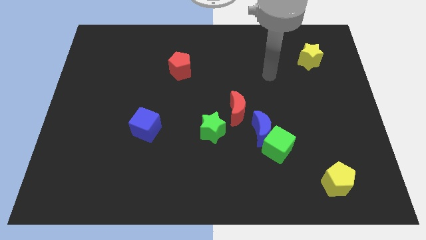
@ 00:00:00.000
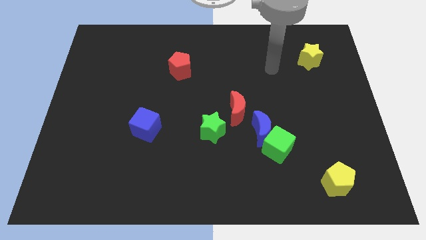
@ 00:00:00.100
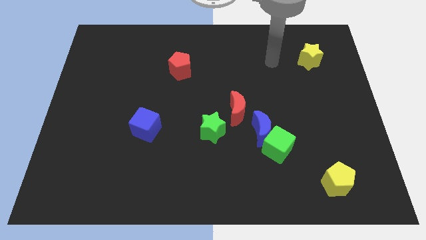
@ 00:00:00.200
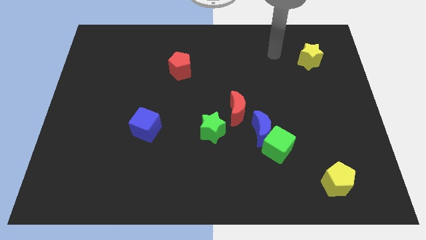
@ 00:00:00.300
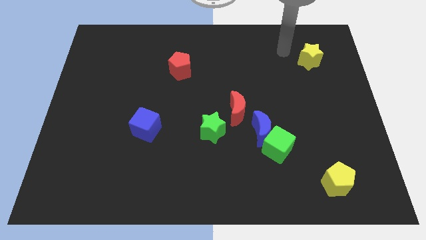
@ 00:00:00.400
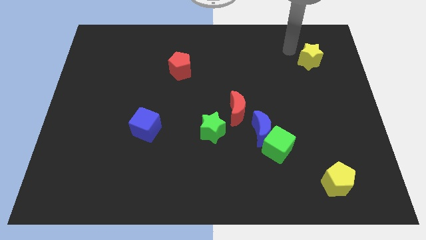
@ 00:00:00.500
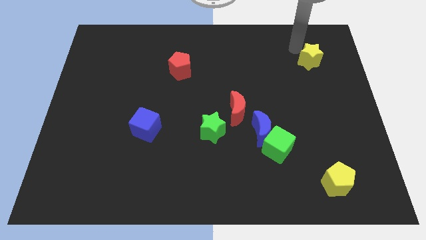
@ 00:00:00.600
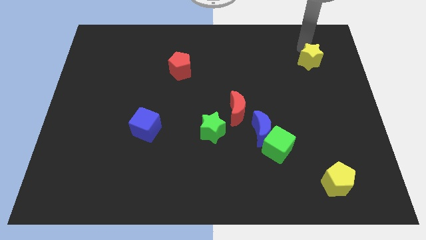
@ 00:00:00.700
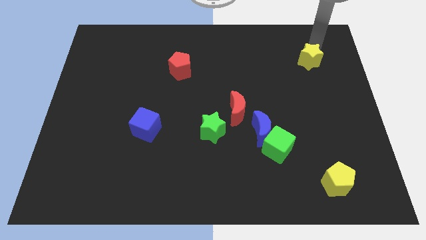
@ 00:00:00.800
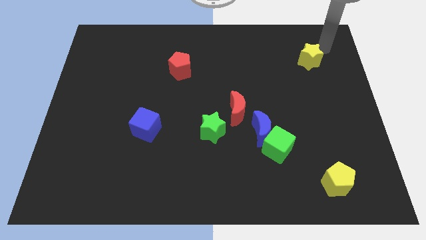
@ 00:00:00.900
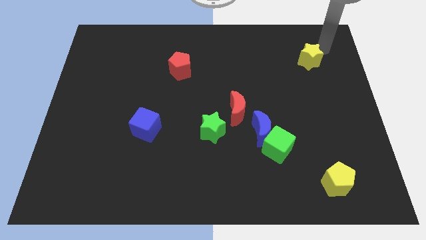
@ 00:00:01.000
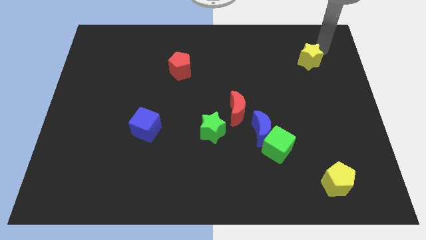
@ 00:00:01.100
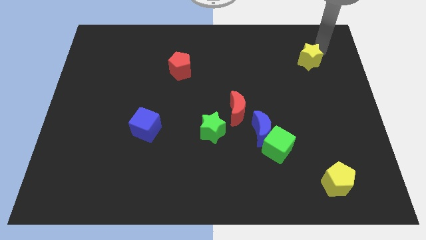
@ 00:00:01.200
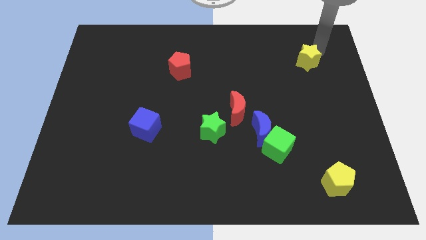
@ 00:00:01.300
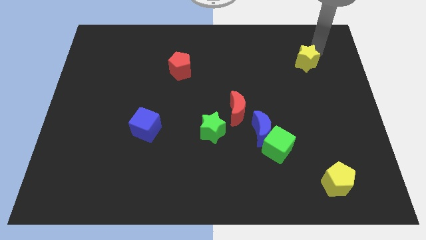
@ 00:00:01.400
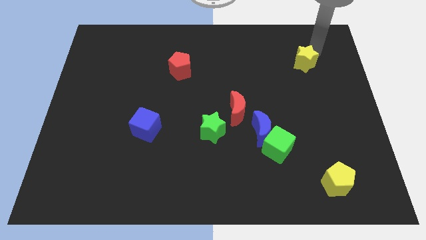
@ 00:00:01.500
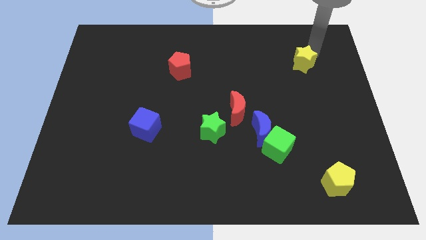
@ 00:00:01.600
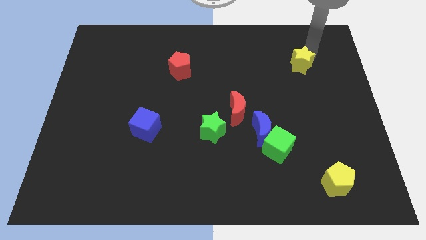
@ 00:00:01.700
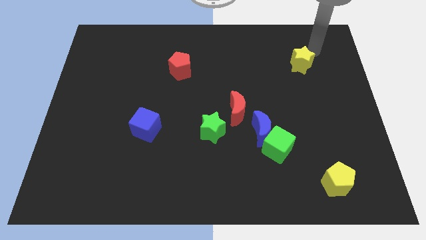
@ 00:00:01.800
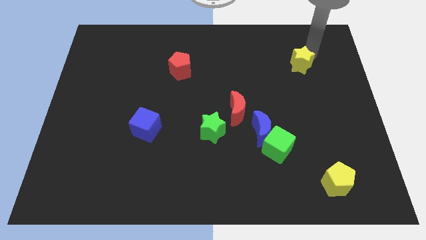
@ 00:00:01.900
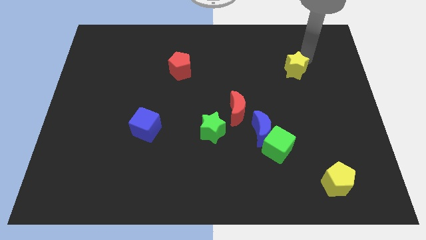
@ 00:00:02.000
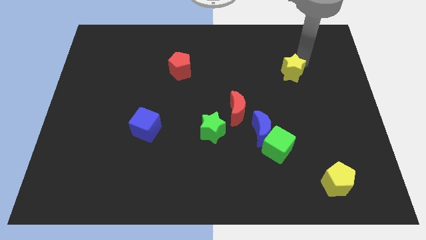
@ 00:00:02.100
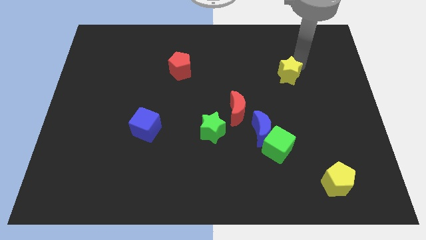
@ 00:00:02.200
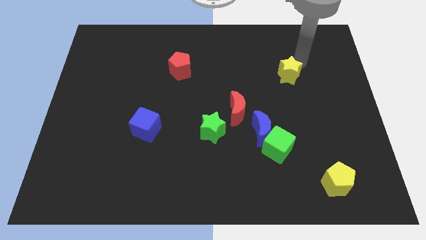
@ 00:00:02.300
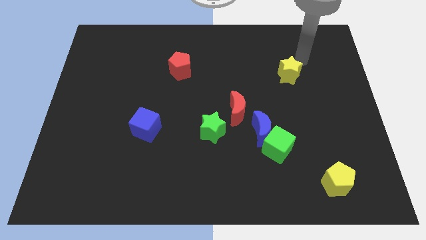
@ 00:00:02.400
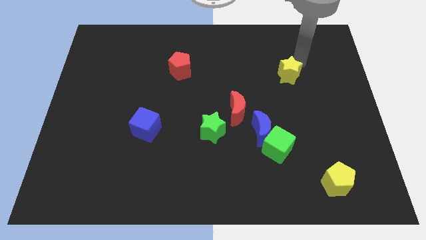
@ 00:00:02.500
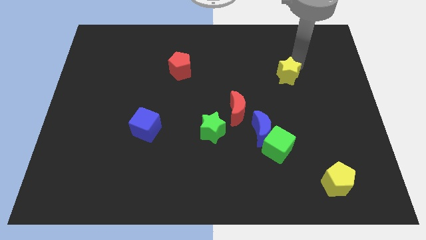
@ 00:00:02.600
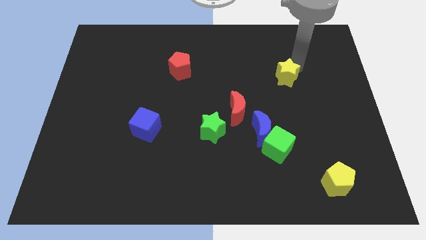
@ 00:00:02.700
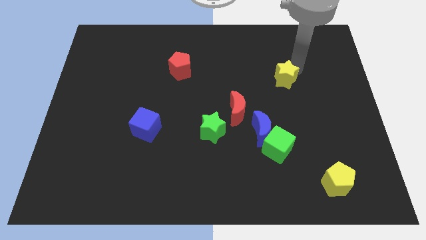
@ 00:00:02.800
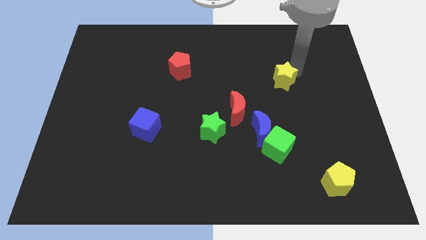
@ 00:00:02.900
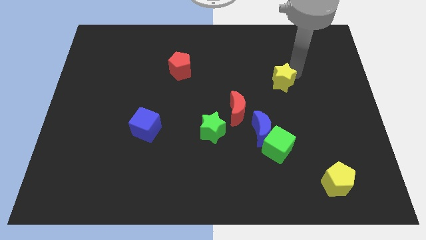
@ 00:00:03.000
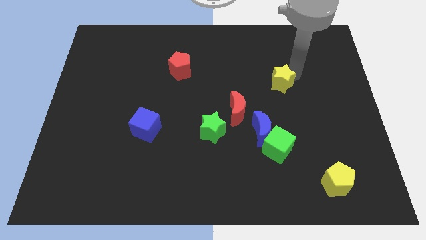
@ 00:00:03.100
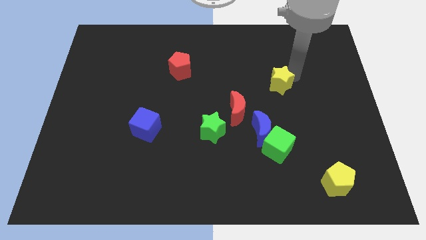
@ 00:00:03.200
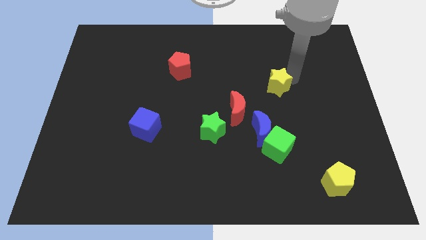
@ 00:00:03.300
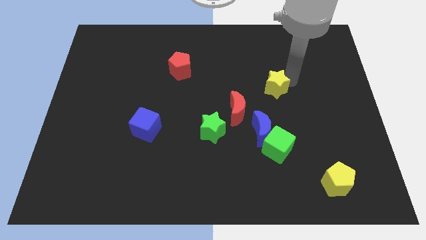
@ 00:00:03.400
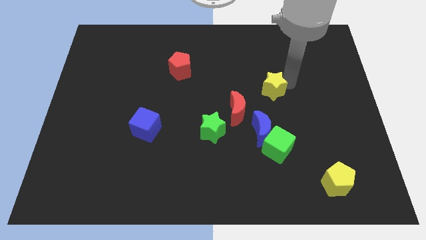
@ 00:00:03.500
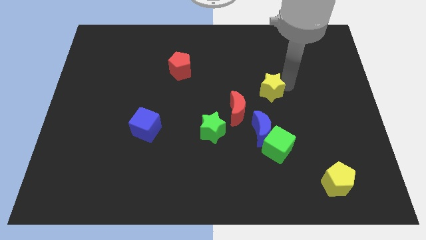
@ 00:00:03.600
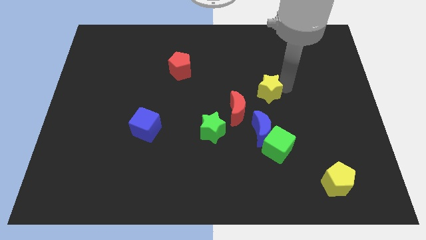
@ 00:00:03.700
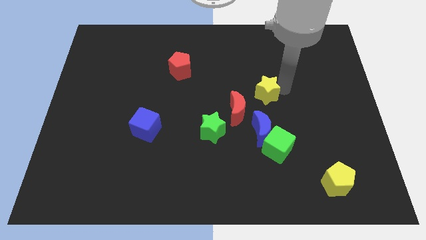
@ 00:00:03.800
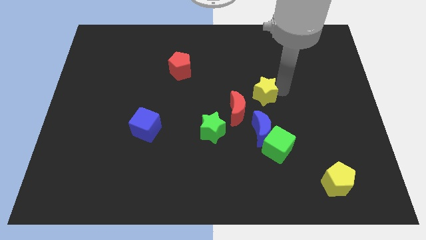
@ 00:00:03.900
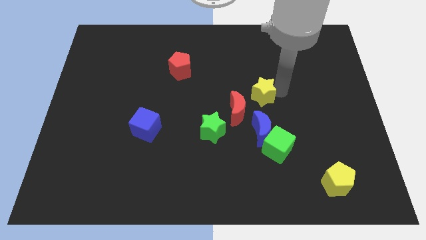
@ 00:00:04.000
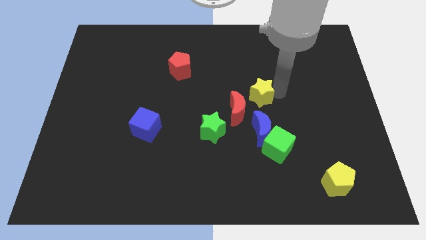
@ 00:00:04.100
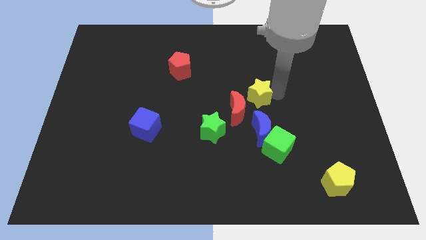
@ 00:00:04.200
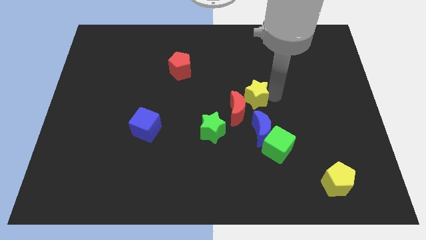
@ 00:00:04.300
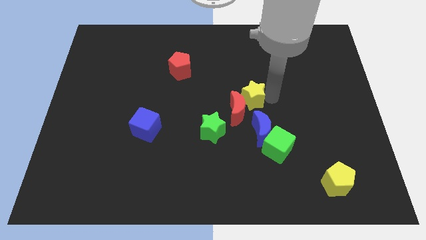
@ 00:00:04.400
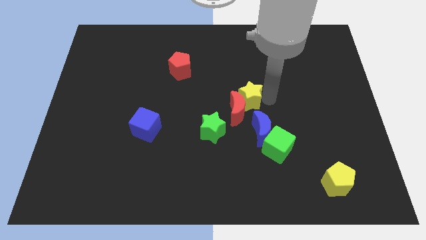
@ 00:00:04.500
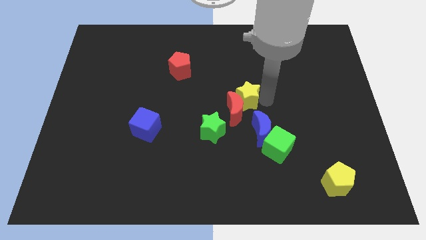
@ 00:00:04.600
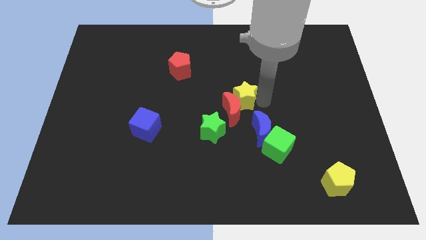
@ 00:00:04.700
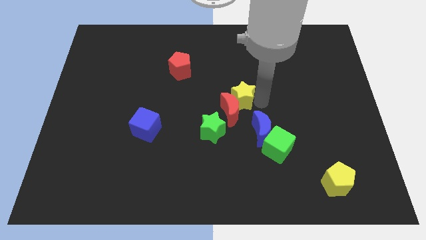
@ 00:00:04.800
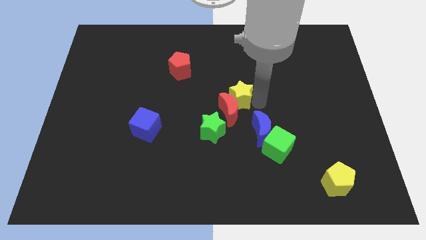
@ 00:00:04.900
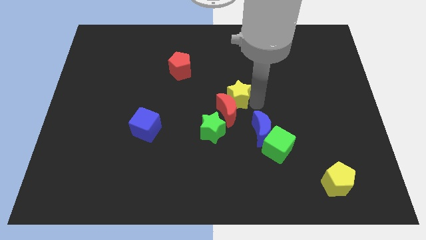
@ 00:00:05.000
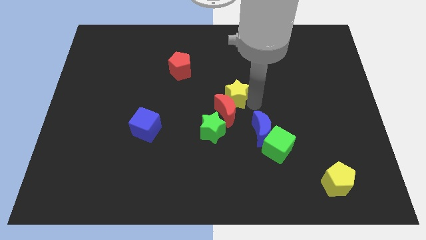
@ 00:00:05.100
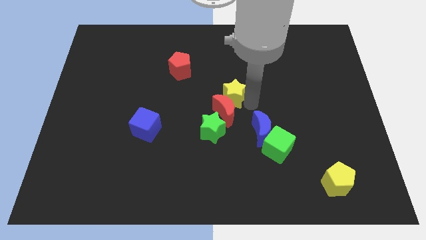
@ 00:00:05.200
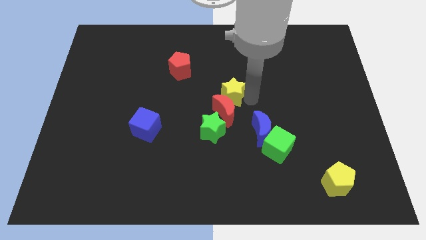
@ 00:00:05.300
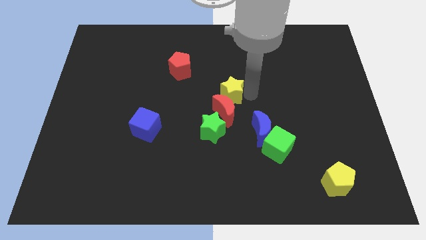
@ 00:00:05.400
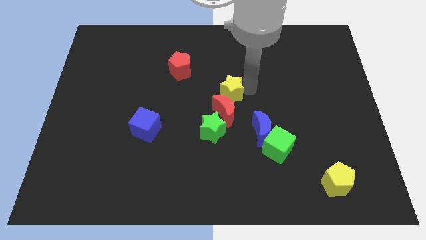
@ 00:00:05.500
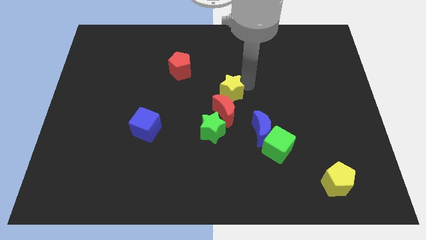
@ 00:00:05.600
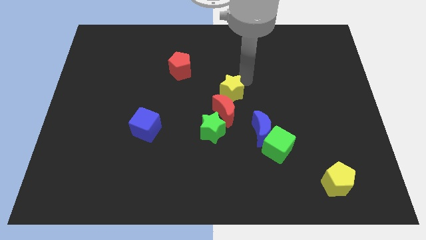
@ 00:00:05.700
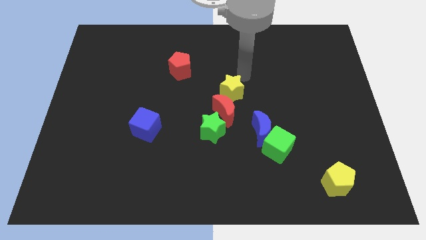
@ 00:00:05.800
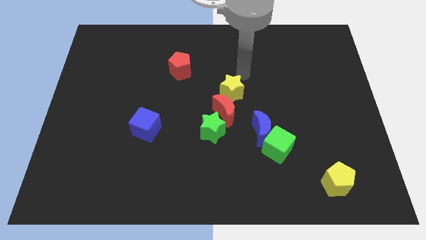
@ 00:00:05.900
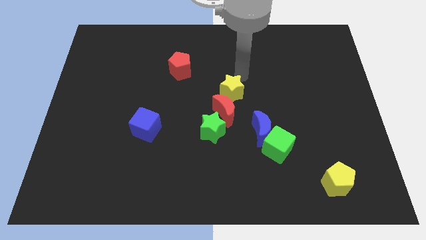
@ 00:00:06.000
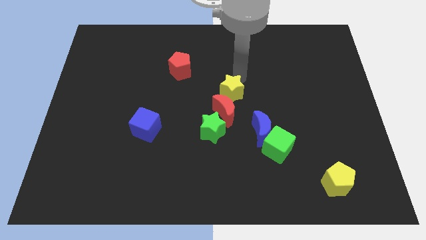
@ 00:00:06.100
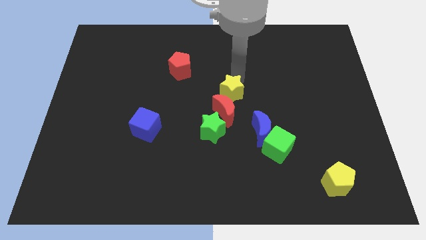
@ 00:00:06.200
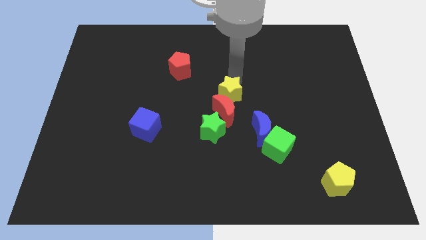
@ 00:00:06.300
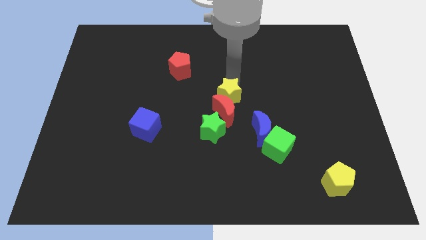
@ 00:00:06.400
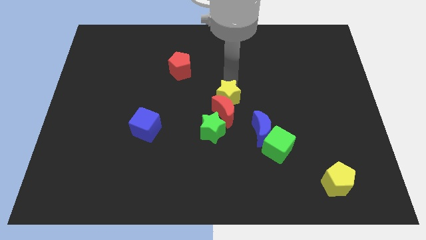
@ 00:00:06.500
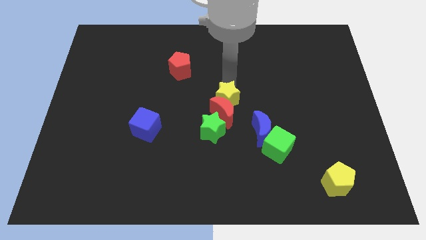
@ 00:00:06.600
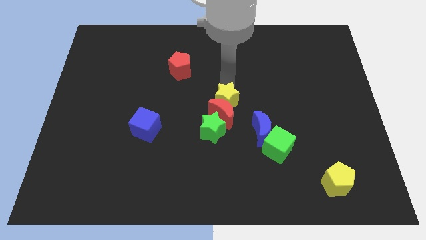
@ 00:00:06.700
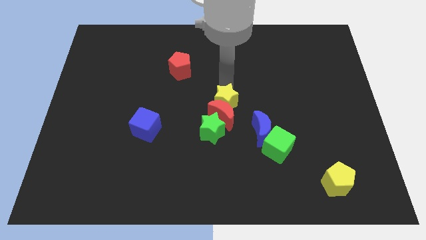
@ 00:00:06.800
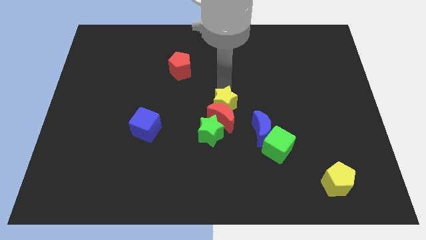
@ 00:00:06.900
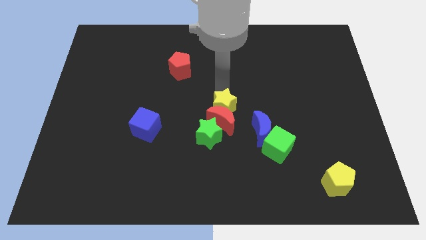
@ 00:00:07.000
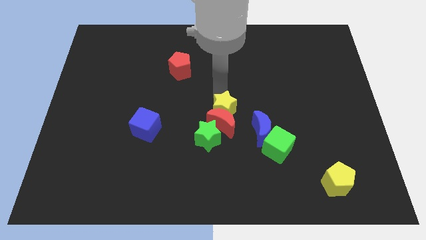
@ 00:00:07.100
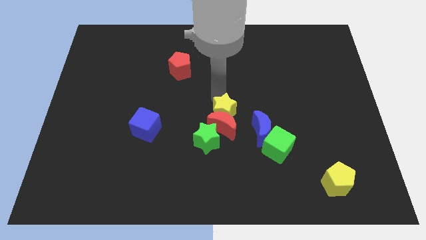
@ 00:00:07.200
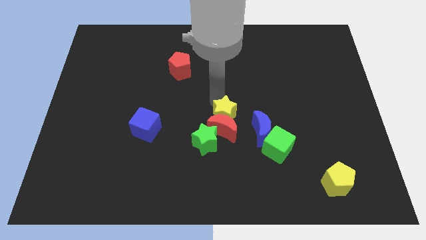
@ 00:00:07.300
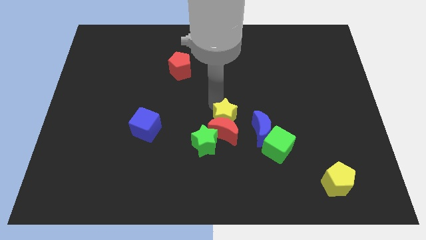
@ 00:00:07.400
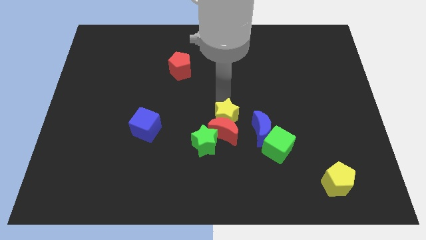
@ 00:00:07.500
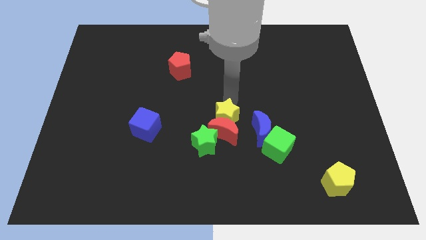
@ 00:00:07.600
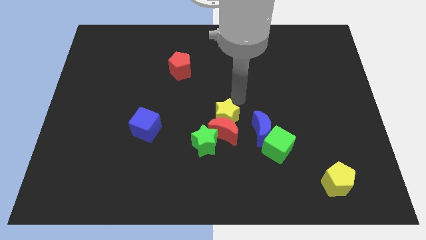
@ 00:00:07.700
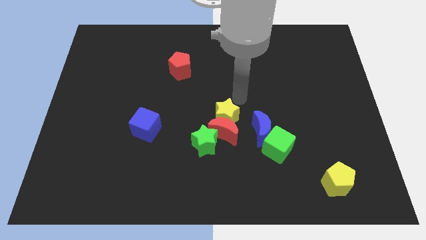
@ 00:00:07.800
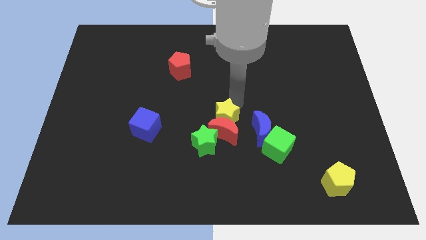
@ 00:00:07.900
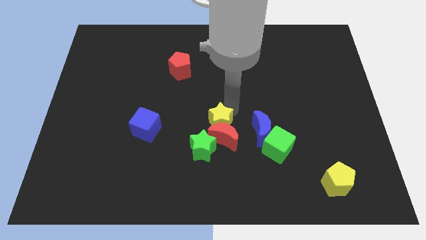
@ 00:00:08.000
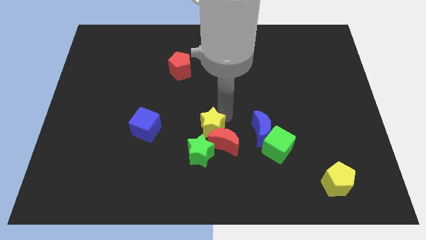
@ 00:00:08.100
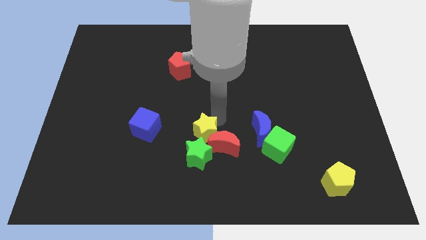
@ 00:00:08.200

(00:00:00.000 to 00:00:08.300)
push the yellow star close to the green star
